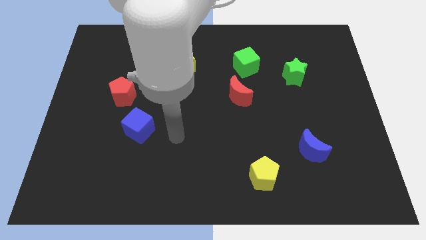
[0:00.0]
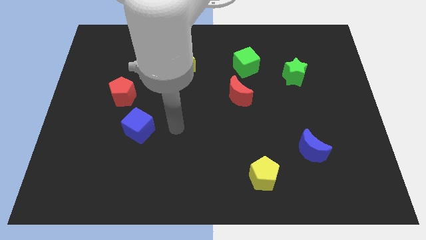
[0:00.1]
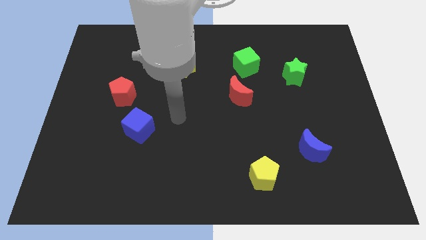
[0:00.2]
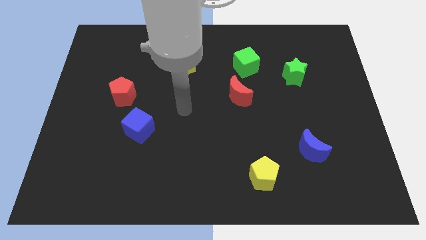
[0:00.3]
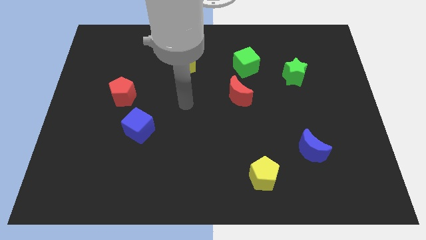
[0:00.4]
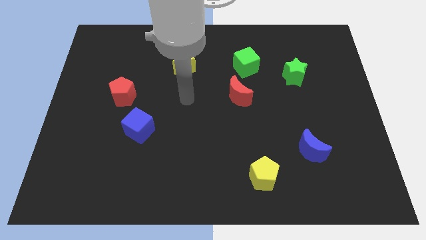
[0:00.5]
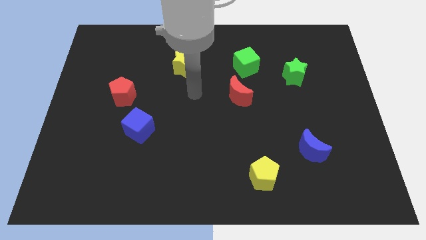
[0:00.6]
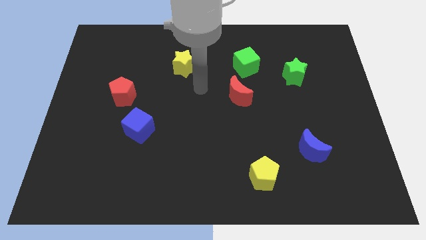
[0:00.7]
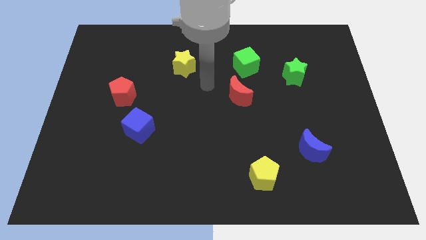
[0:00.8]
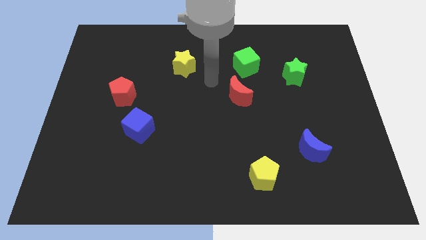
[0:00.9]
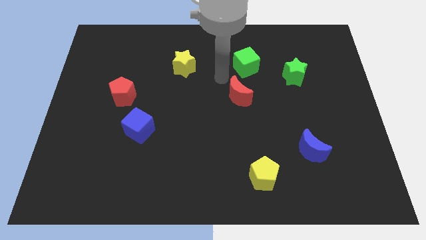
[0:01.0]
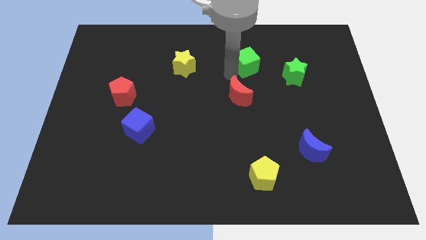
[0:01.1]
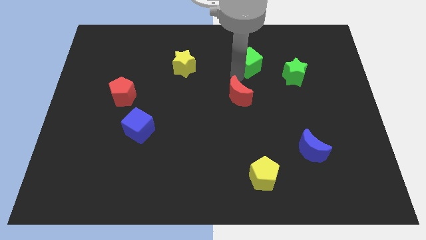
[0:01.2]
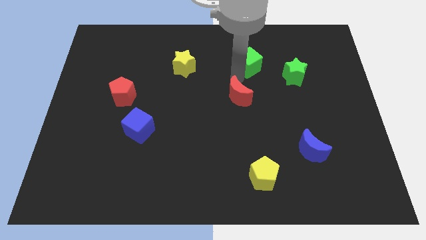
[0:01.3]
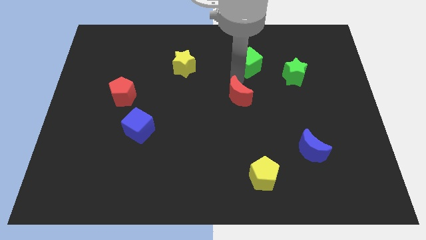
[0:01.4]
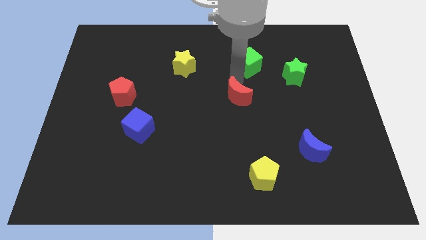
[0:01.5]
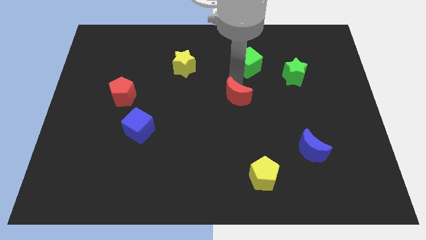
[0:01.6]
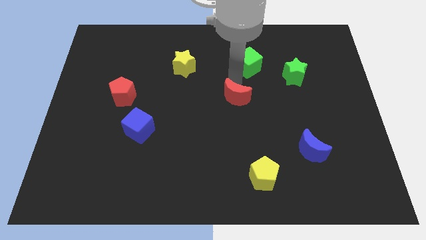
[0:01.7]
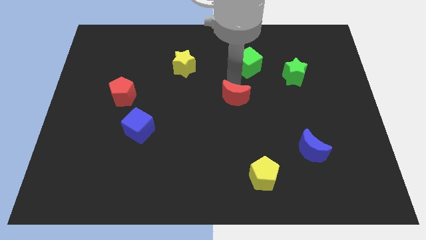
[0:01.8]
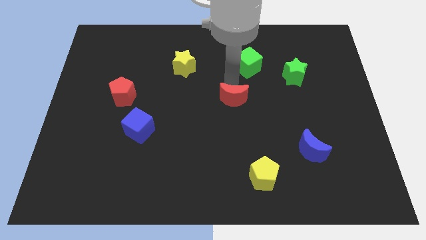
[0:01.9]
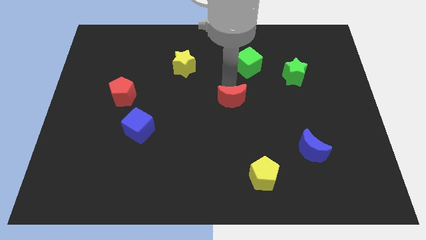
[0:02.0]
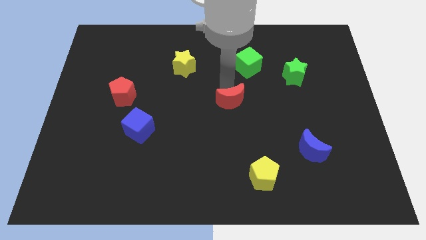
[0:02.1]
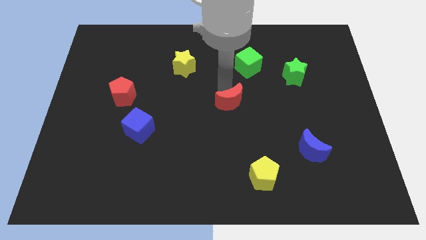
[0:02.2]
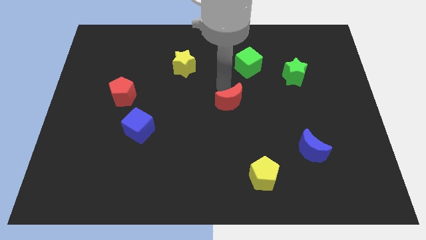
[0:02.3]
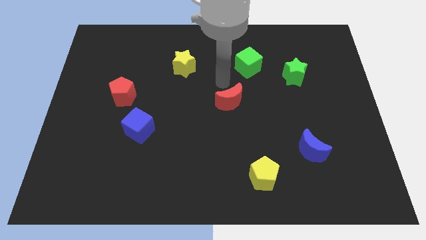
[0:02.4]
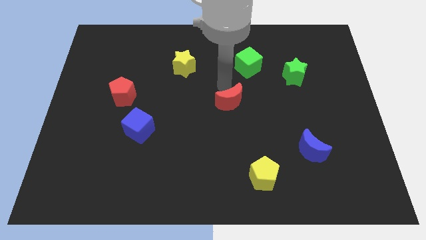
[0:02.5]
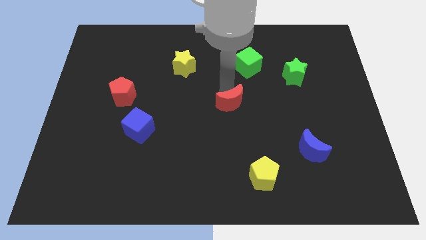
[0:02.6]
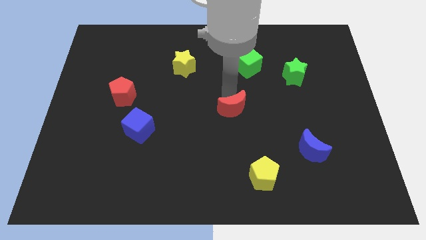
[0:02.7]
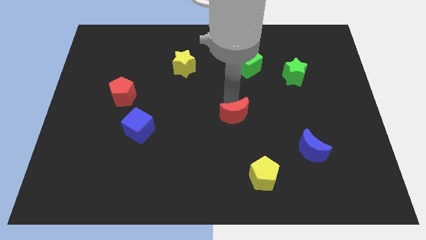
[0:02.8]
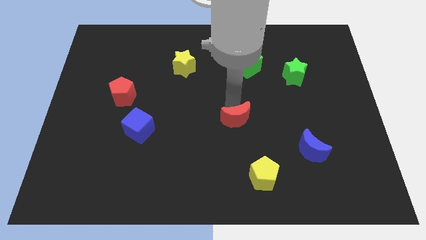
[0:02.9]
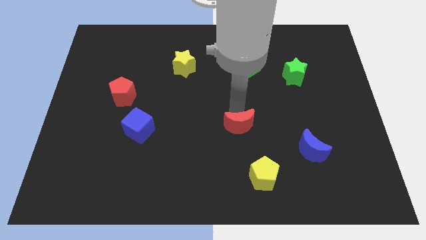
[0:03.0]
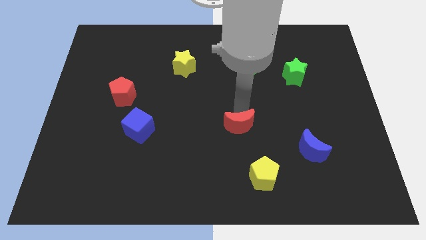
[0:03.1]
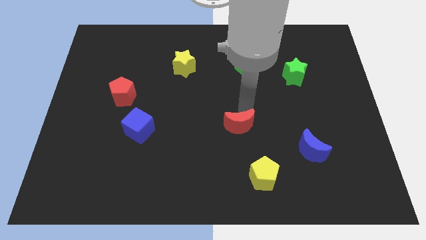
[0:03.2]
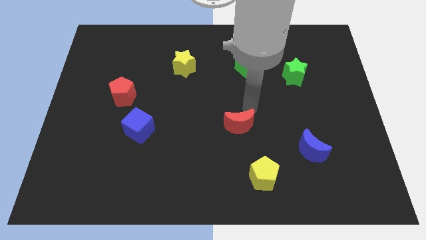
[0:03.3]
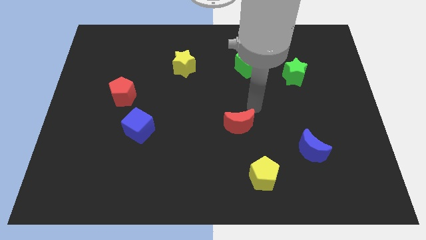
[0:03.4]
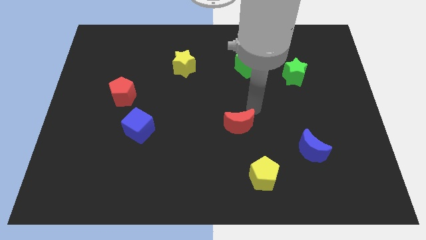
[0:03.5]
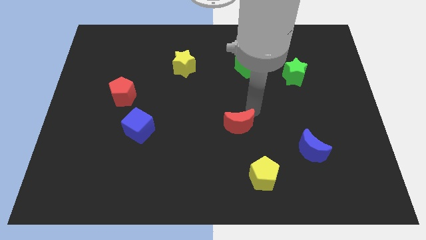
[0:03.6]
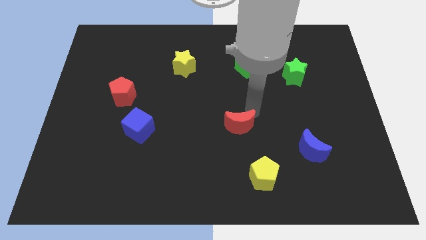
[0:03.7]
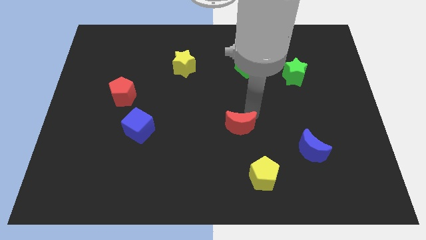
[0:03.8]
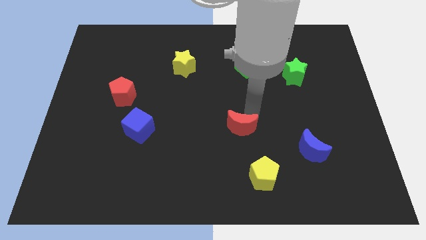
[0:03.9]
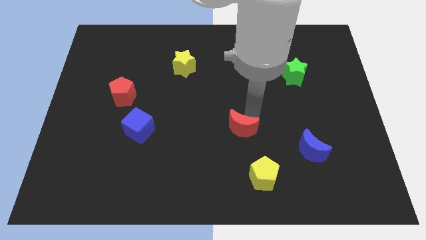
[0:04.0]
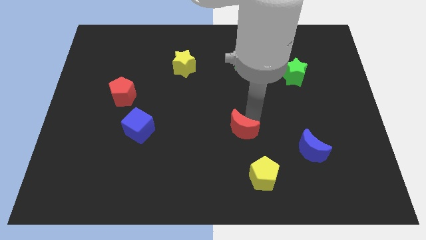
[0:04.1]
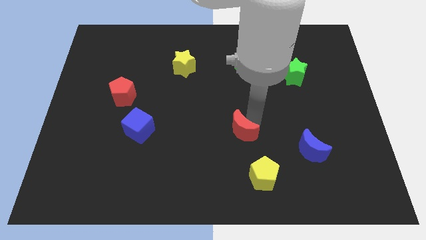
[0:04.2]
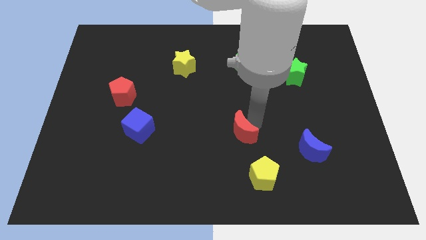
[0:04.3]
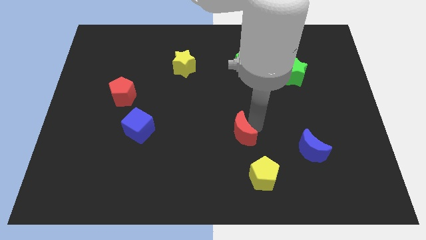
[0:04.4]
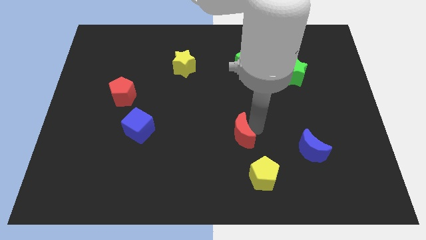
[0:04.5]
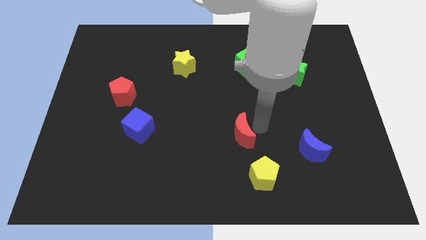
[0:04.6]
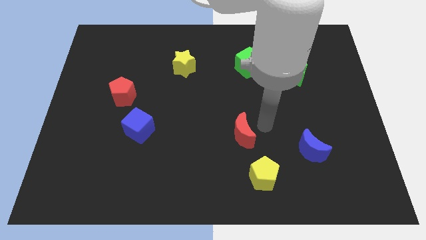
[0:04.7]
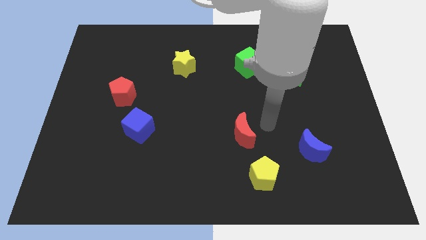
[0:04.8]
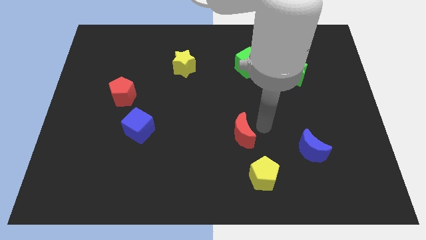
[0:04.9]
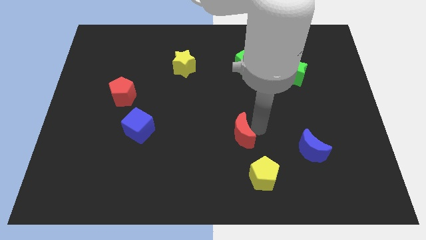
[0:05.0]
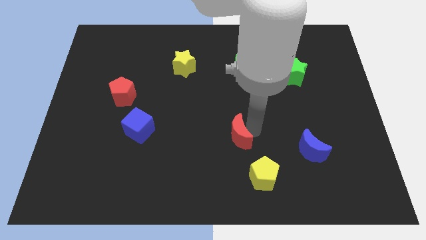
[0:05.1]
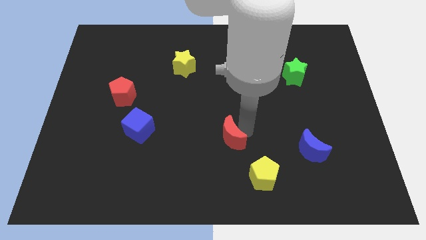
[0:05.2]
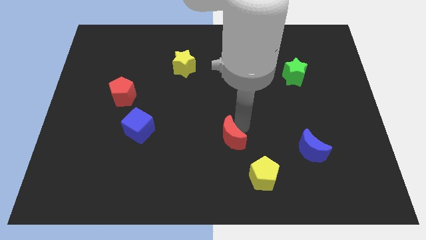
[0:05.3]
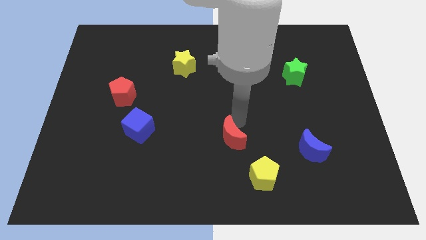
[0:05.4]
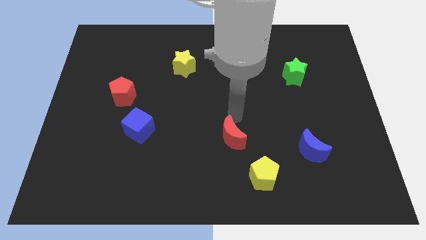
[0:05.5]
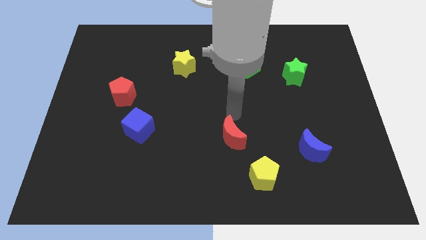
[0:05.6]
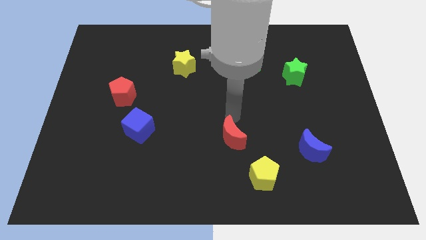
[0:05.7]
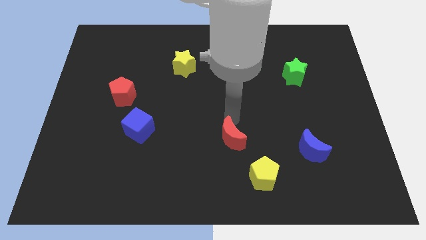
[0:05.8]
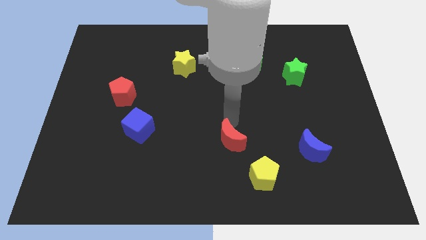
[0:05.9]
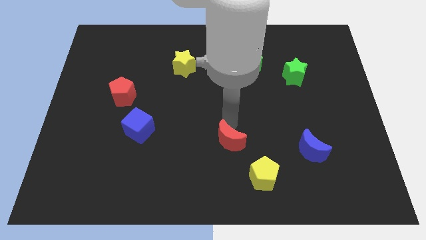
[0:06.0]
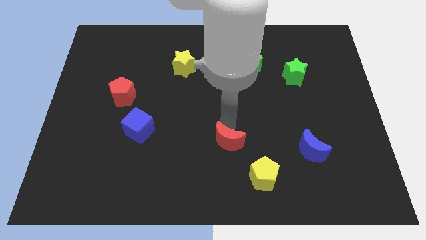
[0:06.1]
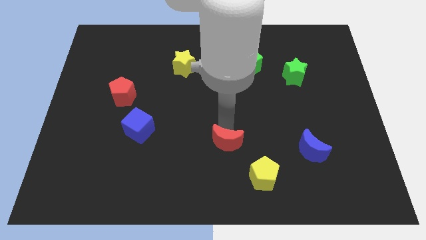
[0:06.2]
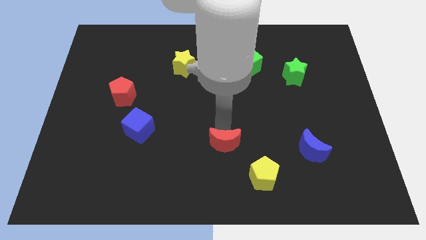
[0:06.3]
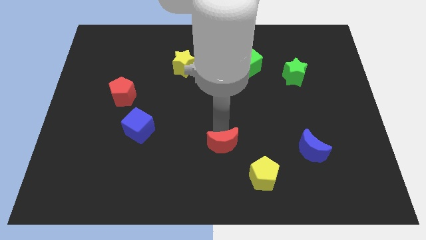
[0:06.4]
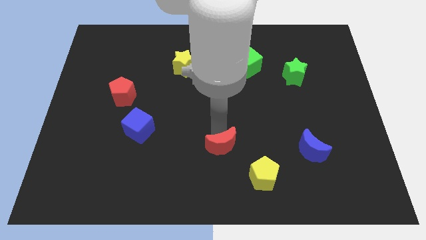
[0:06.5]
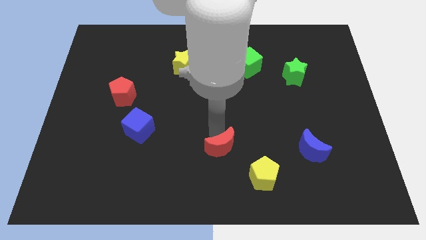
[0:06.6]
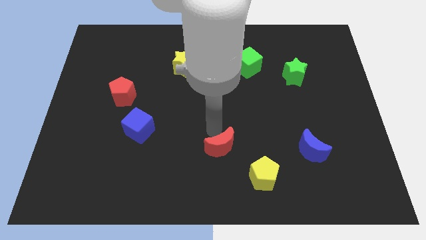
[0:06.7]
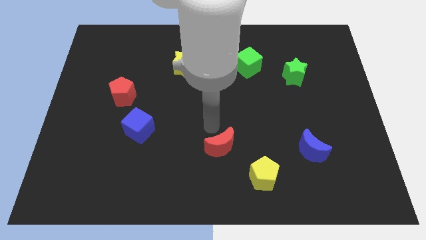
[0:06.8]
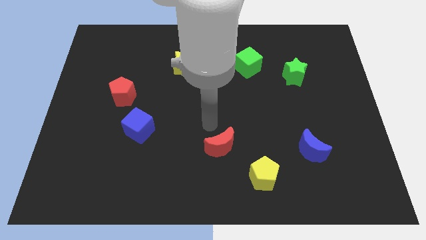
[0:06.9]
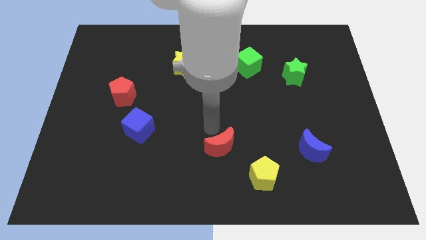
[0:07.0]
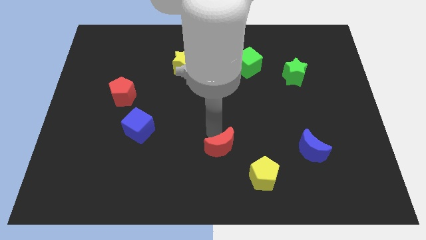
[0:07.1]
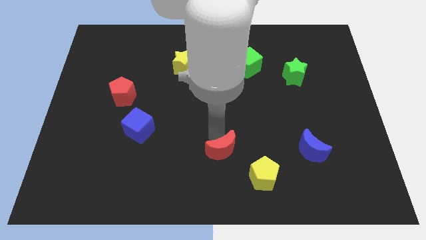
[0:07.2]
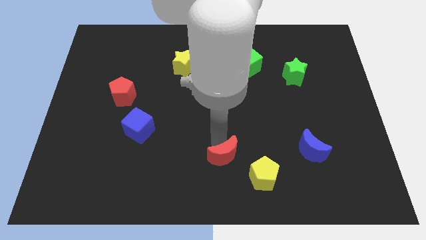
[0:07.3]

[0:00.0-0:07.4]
slide the red moon to the bottom
